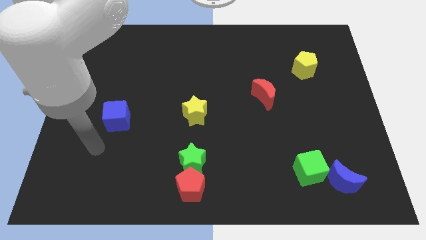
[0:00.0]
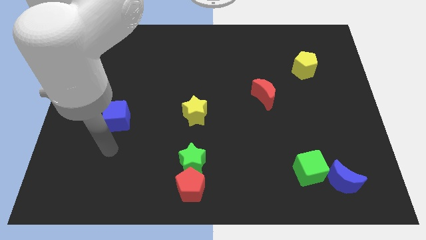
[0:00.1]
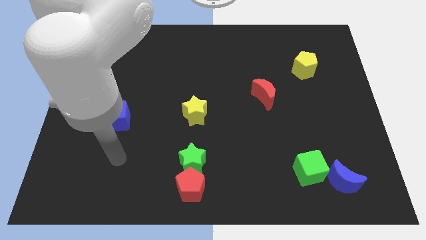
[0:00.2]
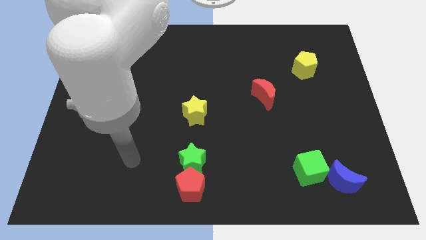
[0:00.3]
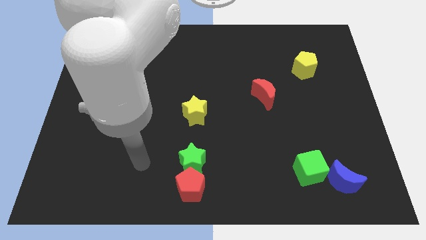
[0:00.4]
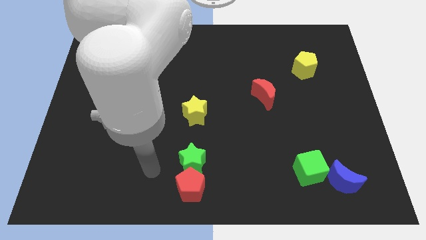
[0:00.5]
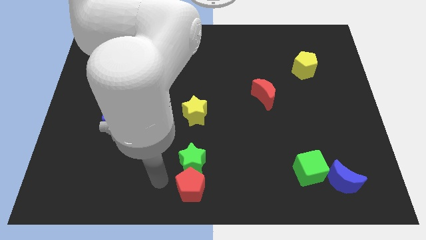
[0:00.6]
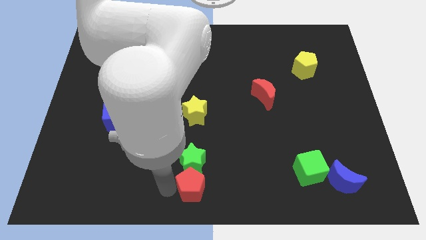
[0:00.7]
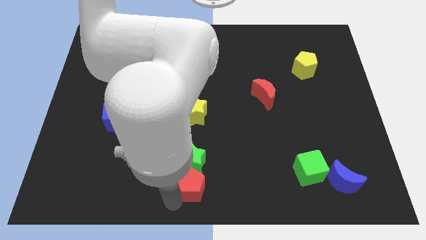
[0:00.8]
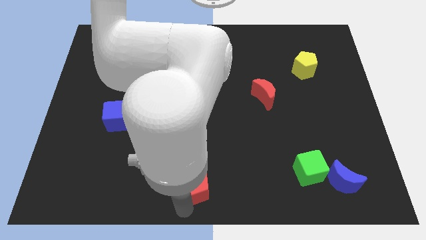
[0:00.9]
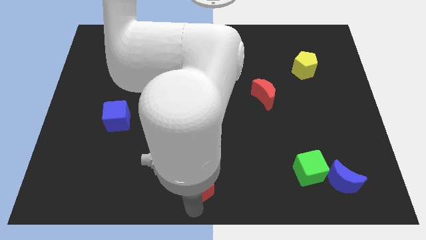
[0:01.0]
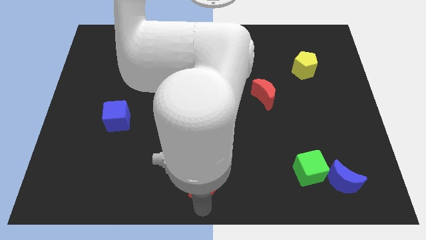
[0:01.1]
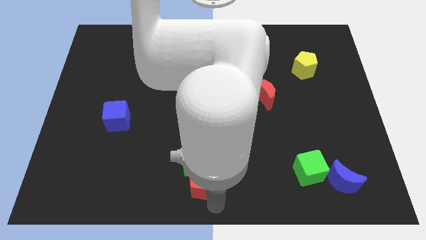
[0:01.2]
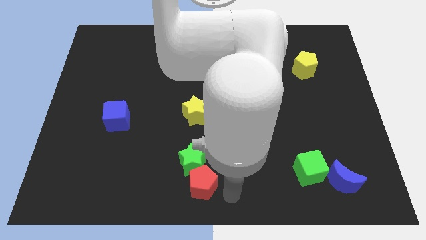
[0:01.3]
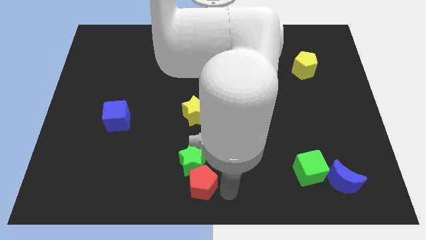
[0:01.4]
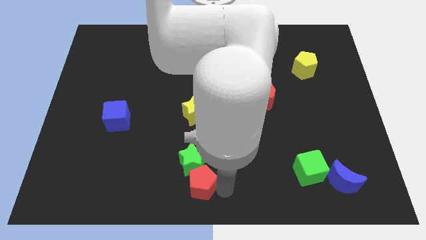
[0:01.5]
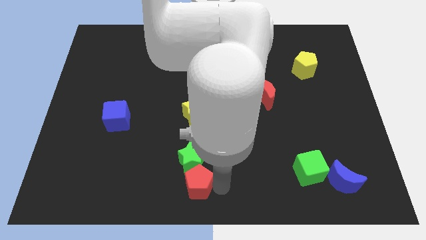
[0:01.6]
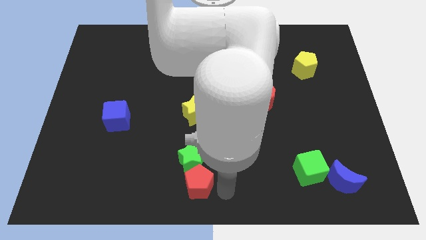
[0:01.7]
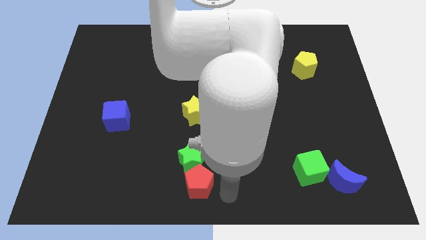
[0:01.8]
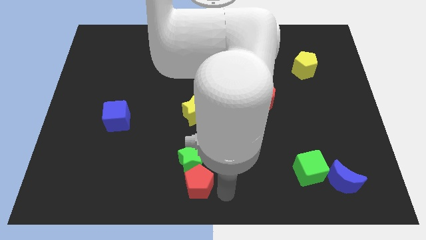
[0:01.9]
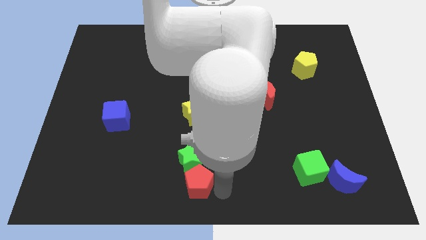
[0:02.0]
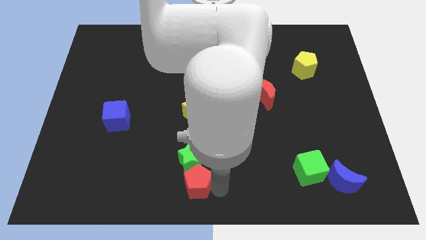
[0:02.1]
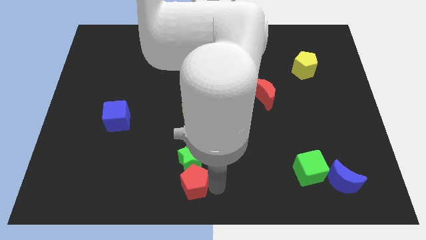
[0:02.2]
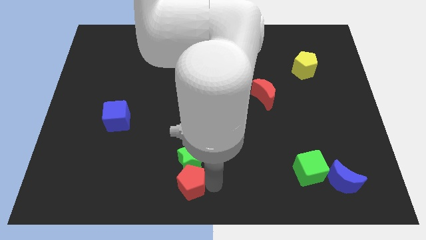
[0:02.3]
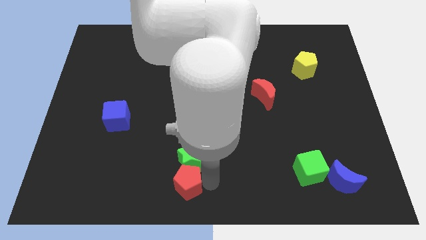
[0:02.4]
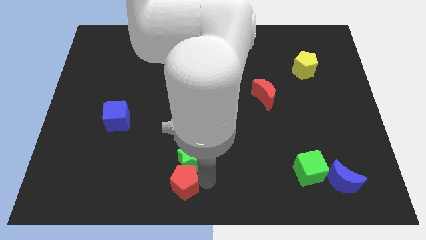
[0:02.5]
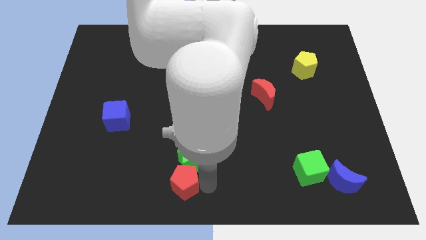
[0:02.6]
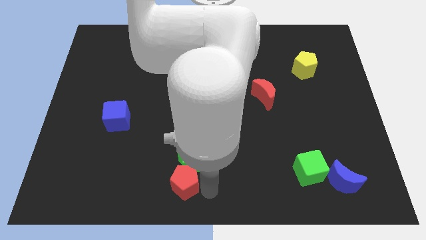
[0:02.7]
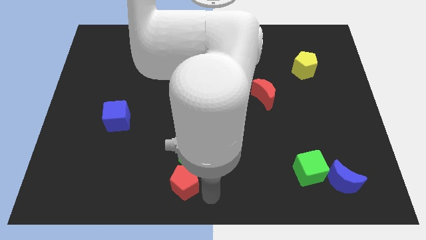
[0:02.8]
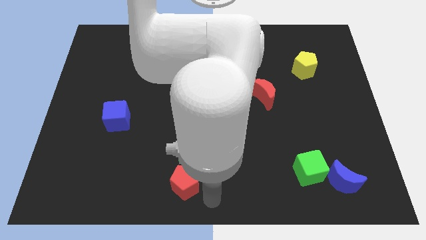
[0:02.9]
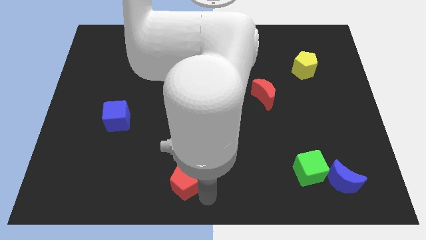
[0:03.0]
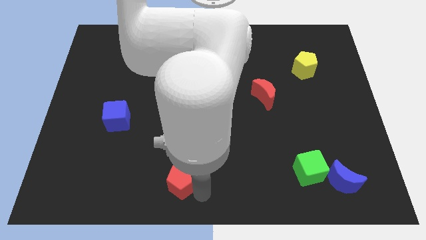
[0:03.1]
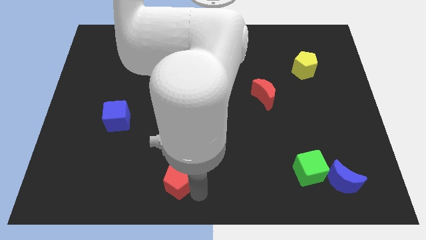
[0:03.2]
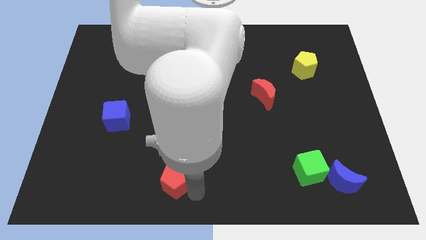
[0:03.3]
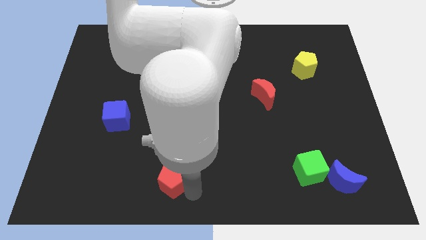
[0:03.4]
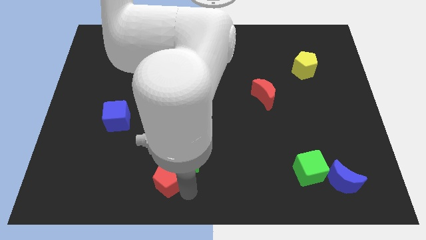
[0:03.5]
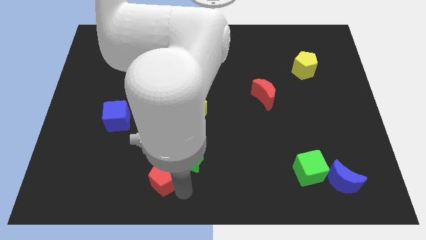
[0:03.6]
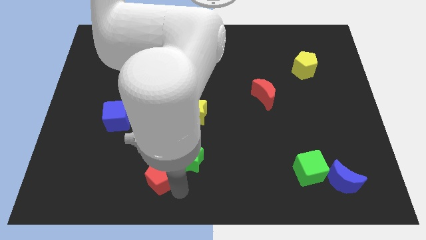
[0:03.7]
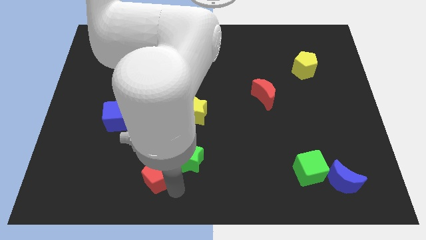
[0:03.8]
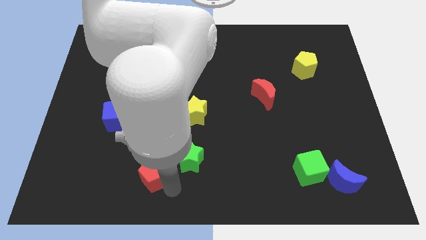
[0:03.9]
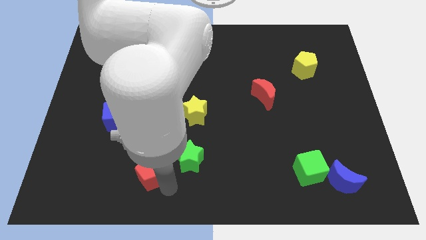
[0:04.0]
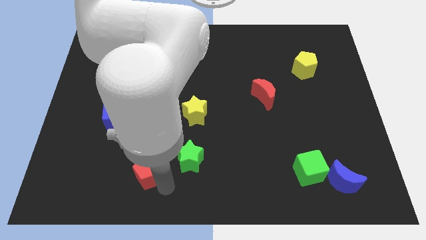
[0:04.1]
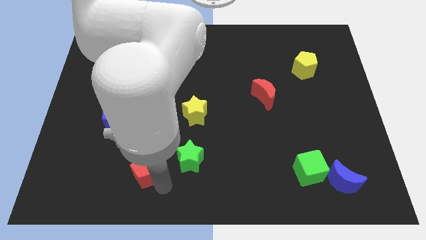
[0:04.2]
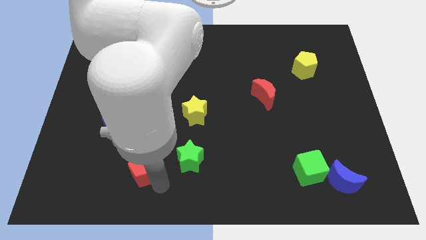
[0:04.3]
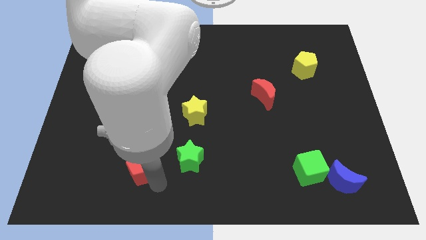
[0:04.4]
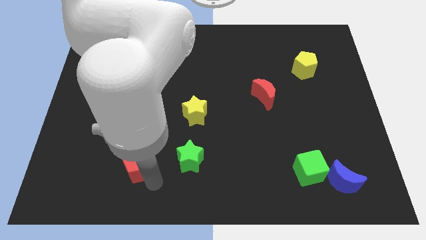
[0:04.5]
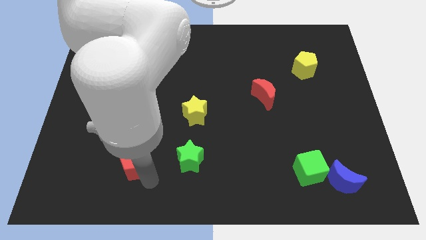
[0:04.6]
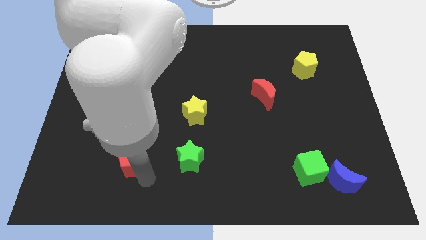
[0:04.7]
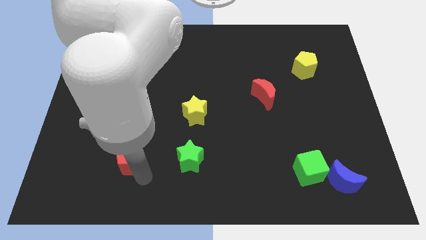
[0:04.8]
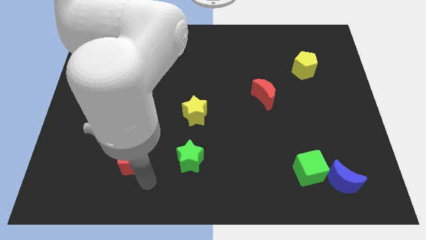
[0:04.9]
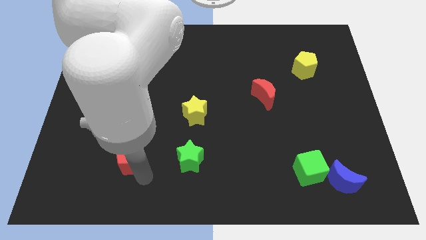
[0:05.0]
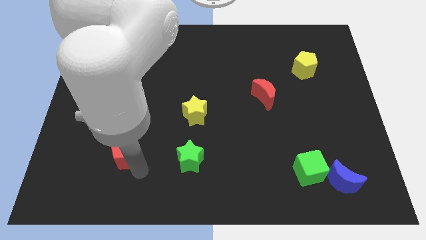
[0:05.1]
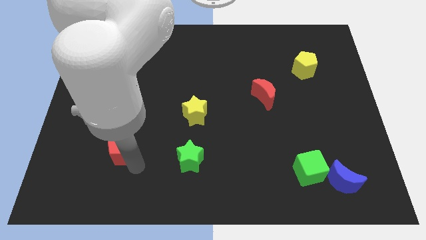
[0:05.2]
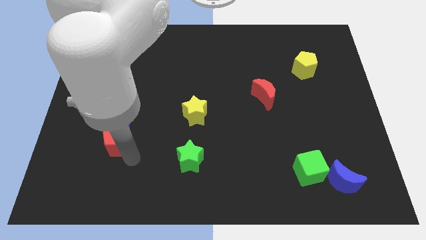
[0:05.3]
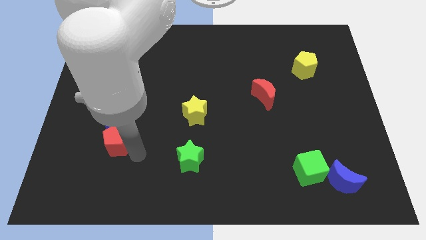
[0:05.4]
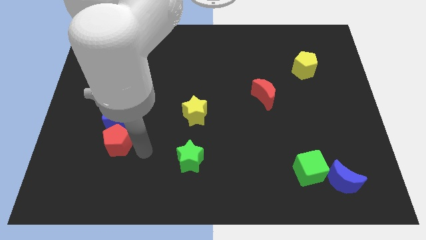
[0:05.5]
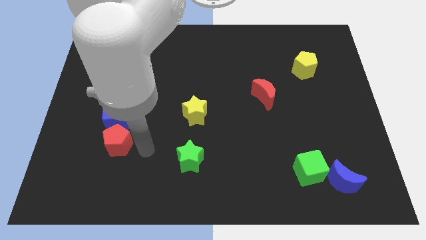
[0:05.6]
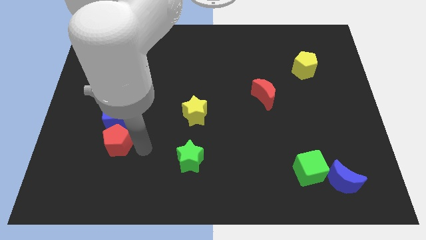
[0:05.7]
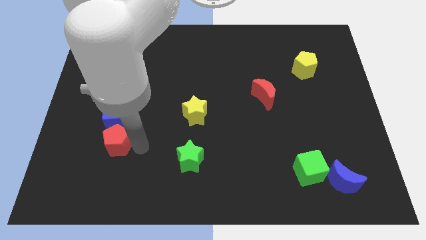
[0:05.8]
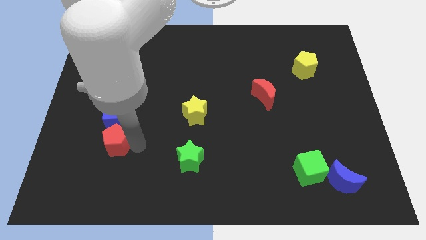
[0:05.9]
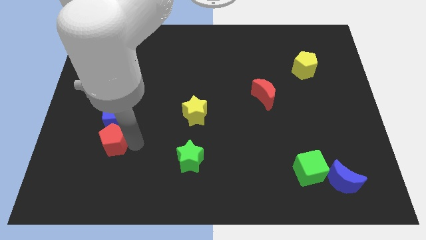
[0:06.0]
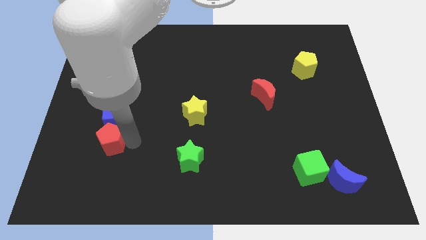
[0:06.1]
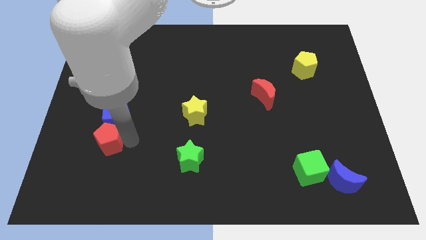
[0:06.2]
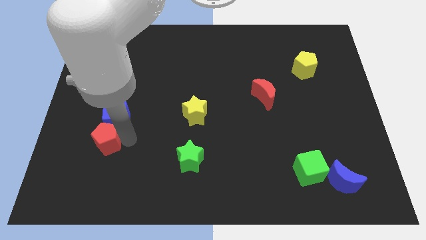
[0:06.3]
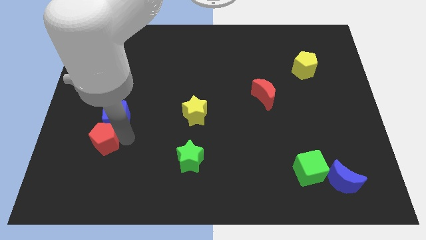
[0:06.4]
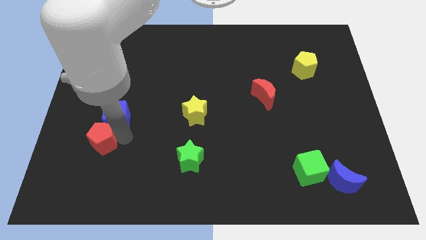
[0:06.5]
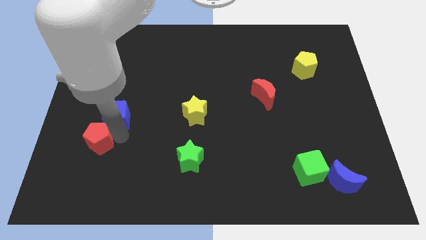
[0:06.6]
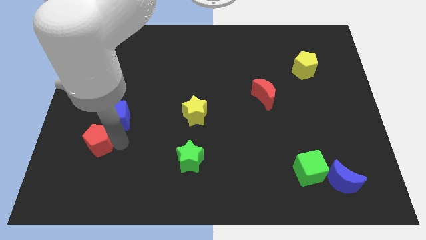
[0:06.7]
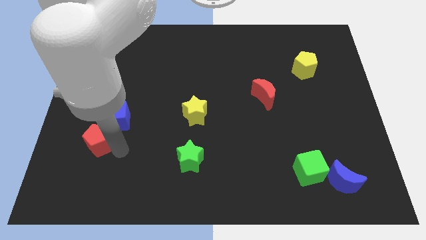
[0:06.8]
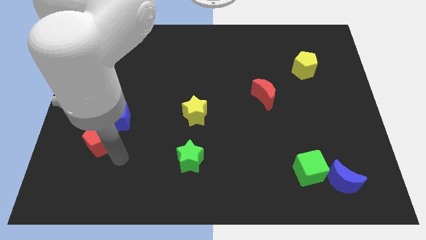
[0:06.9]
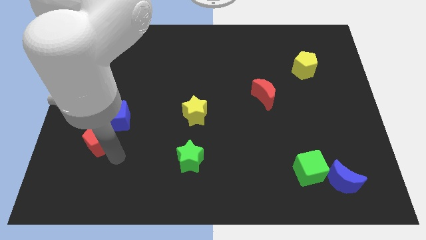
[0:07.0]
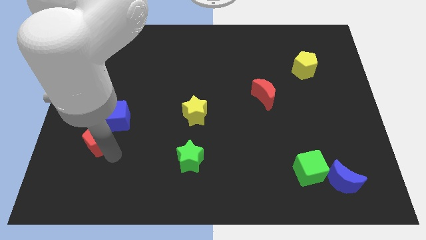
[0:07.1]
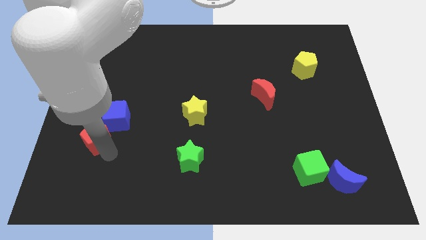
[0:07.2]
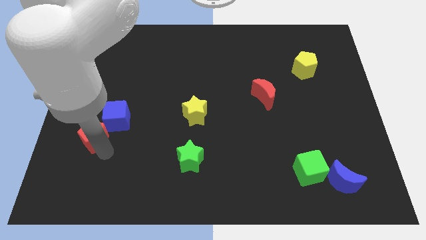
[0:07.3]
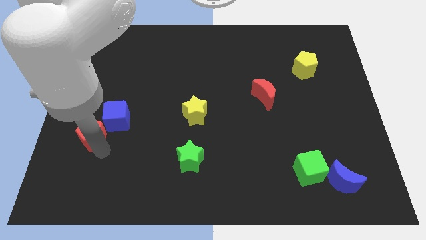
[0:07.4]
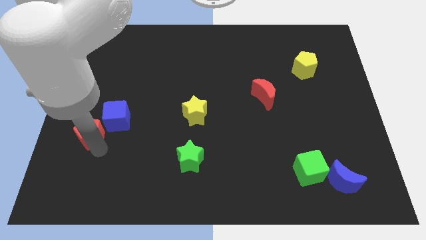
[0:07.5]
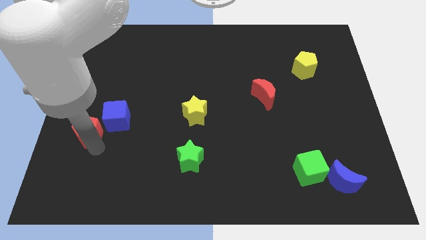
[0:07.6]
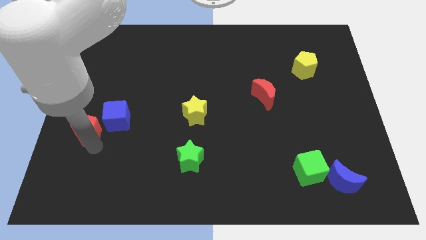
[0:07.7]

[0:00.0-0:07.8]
move the red pentagon to the center left
